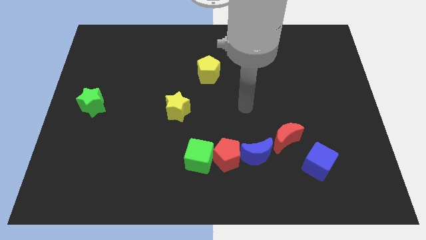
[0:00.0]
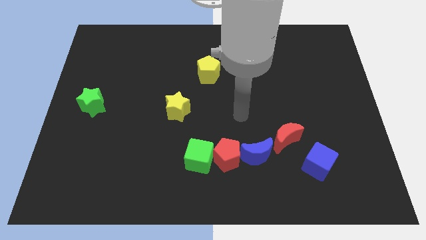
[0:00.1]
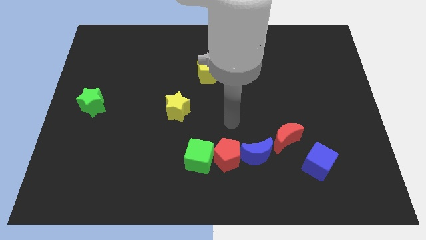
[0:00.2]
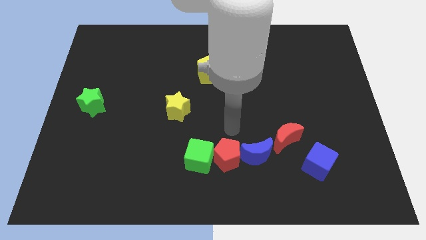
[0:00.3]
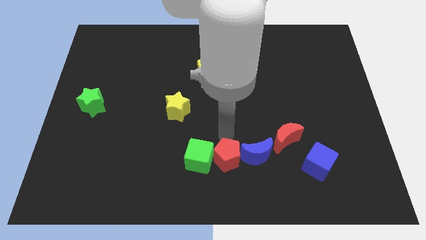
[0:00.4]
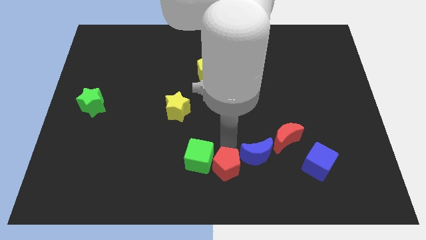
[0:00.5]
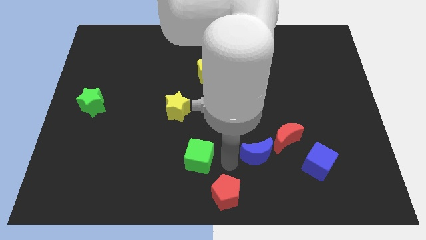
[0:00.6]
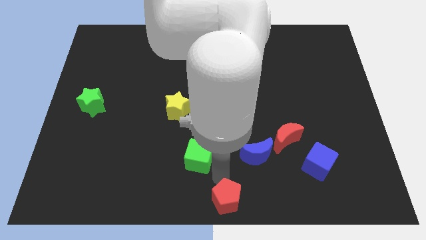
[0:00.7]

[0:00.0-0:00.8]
separate the green cube from the red pentagon

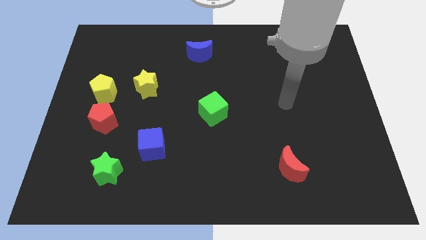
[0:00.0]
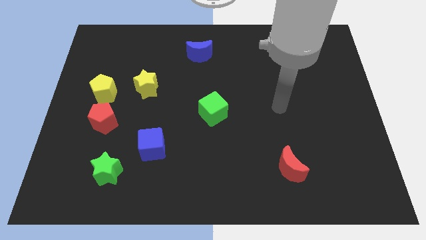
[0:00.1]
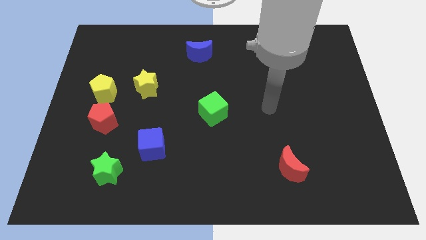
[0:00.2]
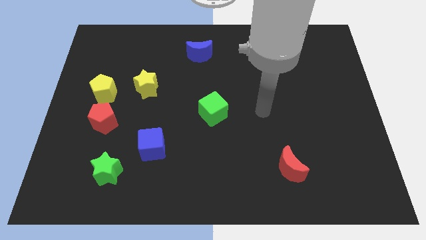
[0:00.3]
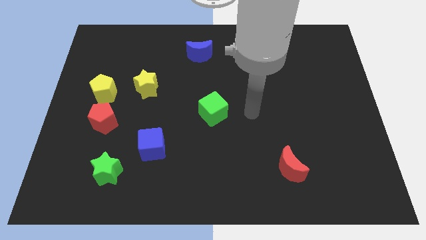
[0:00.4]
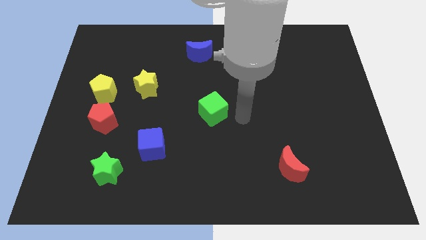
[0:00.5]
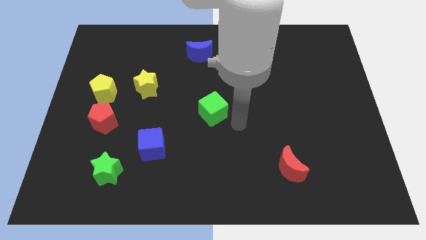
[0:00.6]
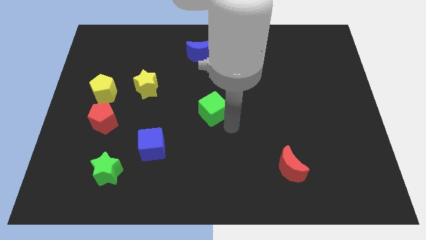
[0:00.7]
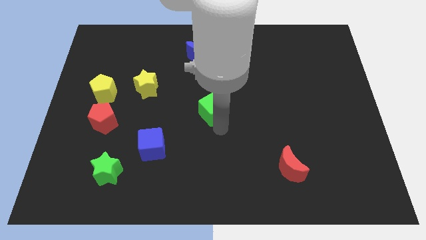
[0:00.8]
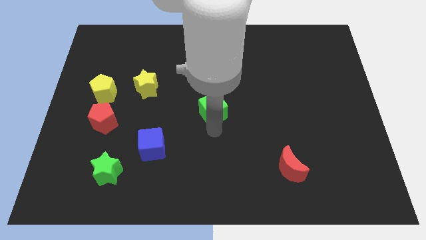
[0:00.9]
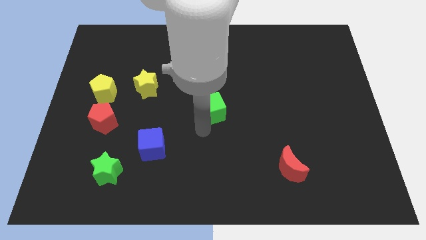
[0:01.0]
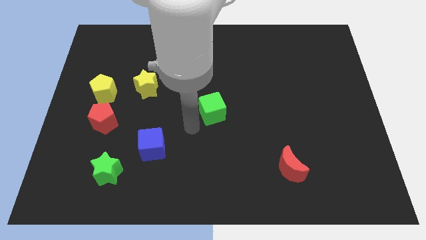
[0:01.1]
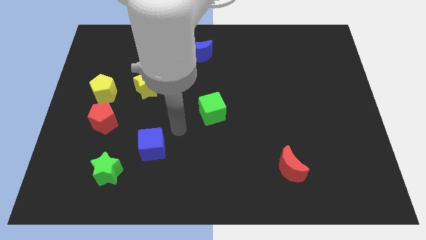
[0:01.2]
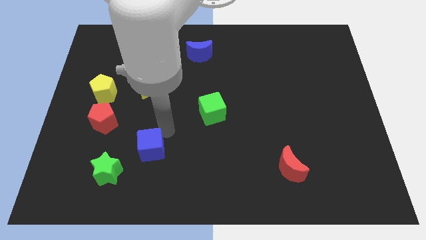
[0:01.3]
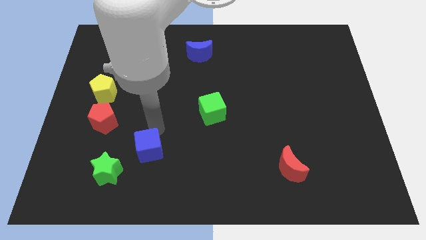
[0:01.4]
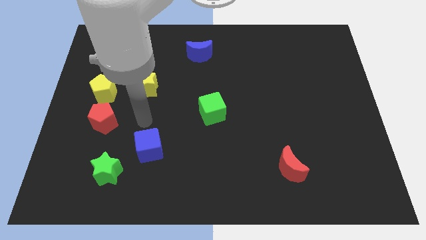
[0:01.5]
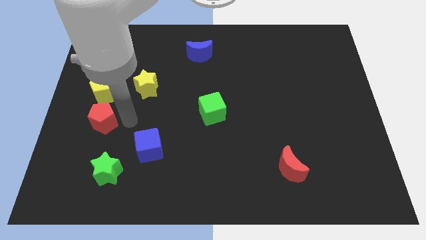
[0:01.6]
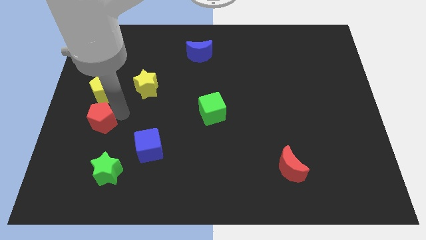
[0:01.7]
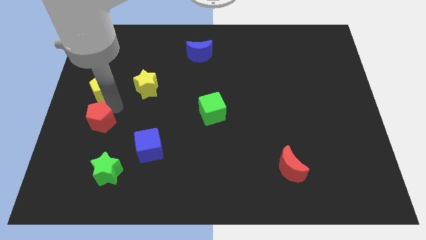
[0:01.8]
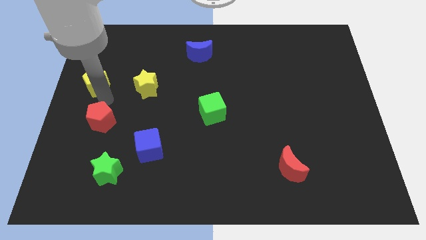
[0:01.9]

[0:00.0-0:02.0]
move the red pentagon away from the yellow pentagon

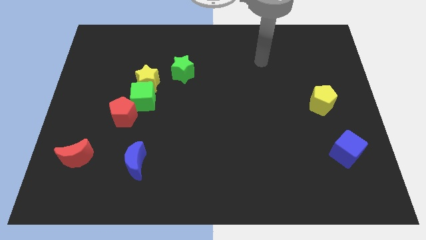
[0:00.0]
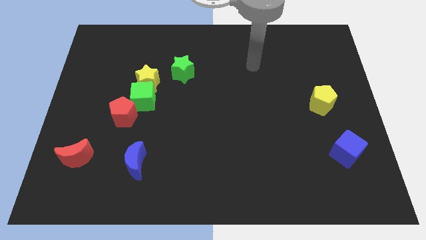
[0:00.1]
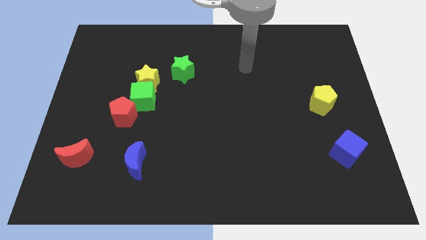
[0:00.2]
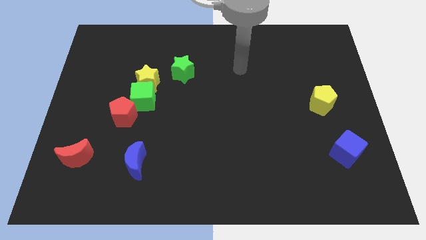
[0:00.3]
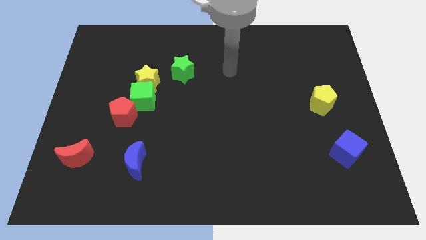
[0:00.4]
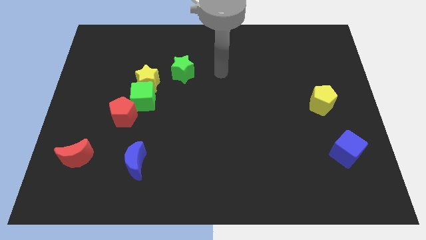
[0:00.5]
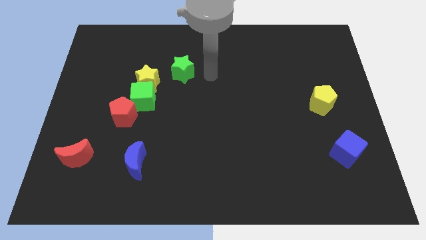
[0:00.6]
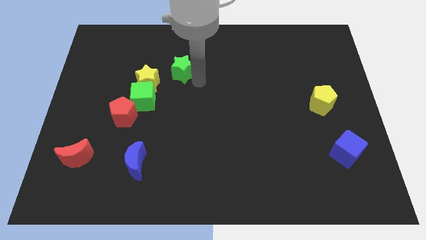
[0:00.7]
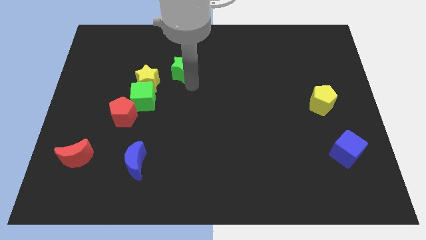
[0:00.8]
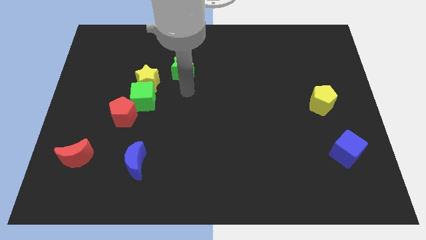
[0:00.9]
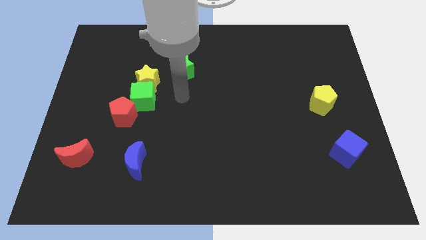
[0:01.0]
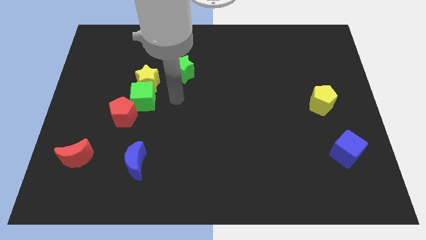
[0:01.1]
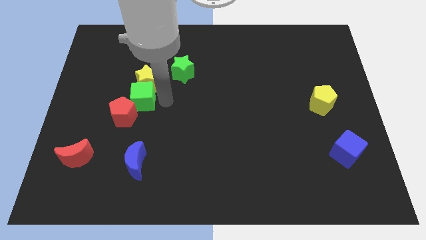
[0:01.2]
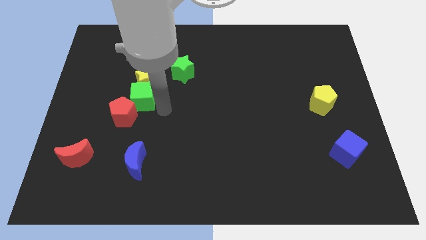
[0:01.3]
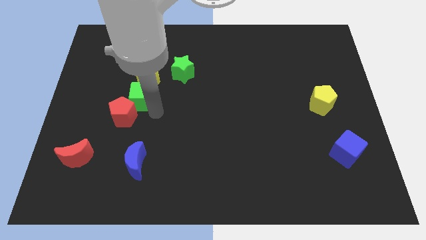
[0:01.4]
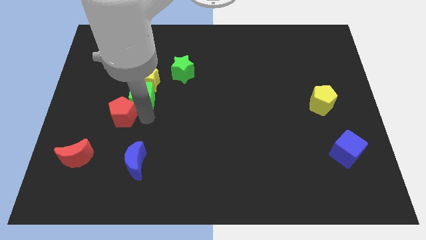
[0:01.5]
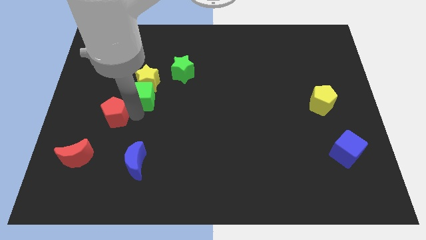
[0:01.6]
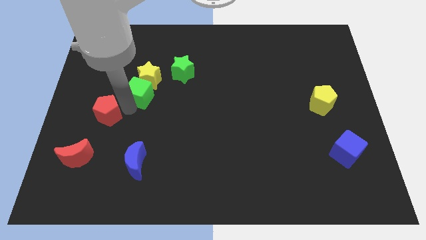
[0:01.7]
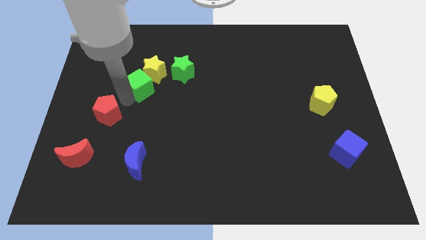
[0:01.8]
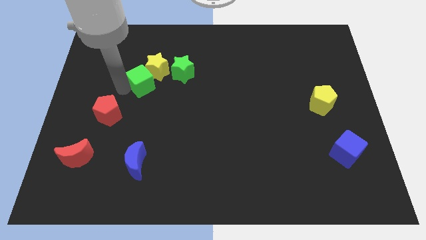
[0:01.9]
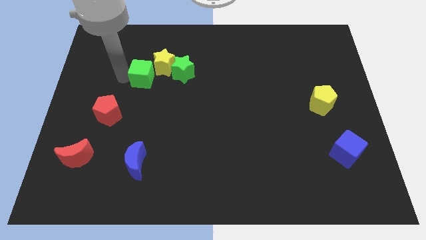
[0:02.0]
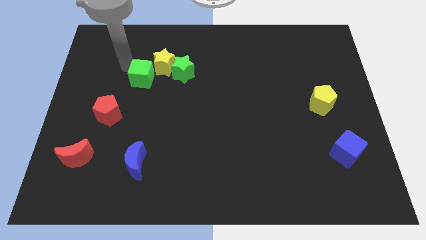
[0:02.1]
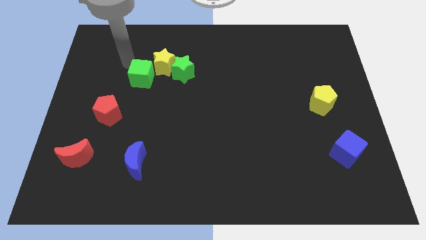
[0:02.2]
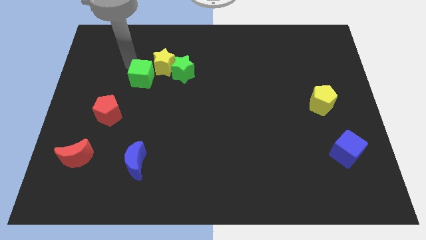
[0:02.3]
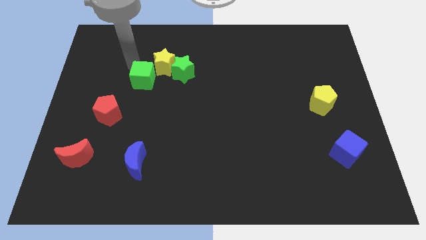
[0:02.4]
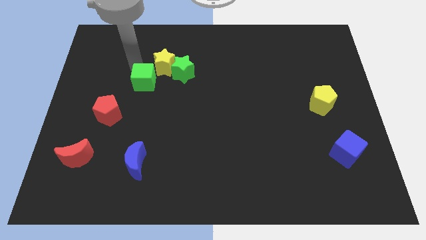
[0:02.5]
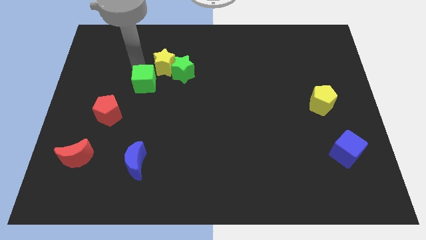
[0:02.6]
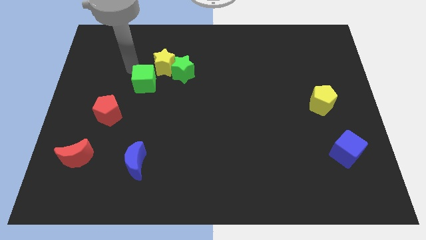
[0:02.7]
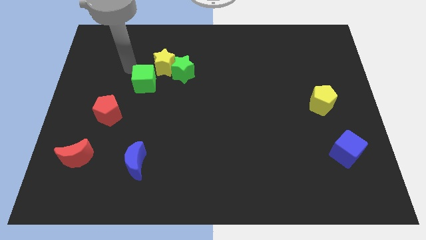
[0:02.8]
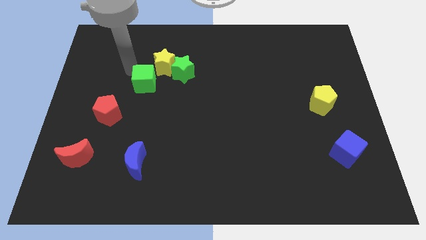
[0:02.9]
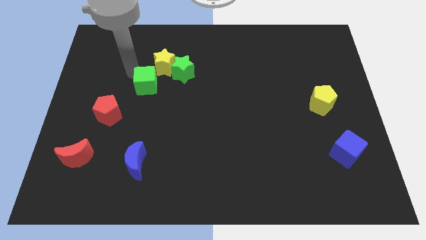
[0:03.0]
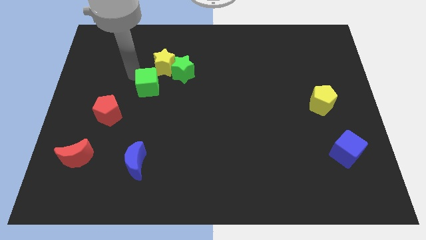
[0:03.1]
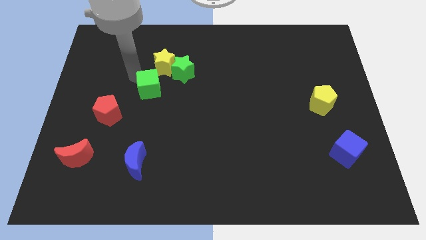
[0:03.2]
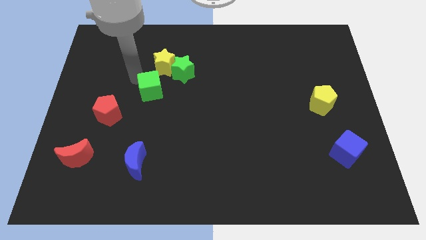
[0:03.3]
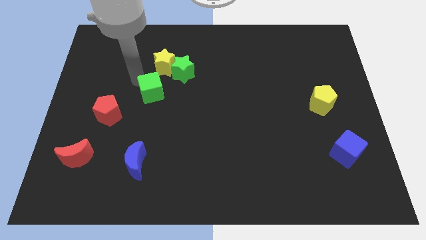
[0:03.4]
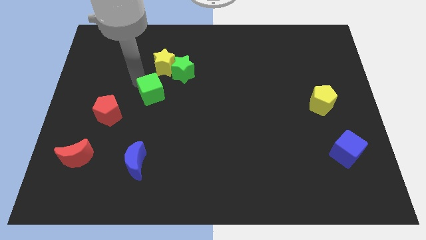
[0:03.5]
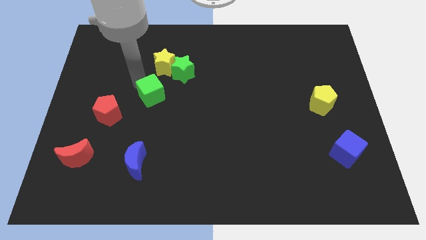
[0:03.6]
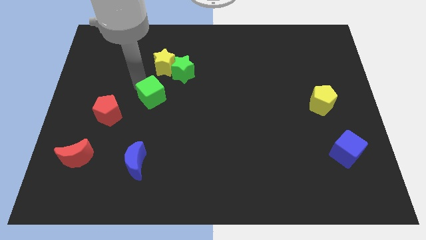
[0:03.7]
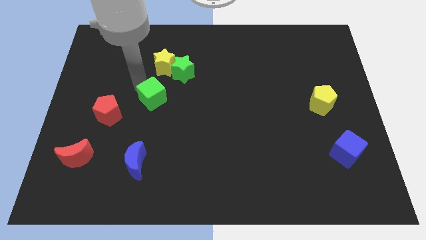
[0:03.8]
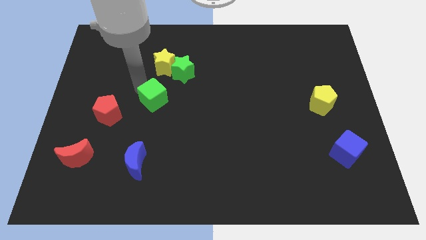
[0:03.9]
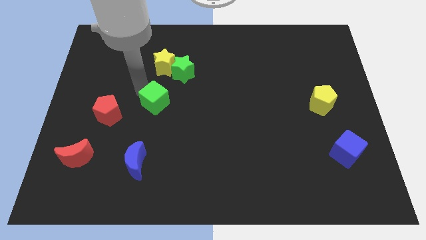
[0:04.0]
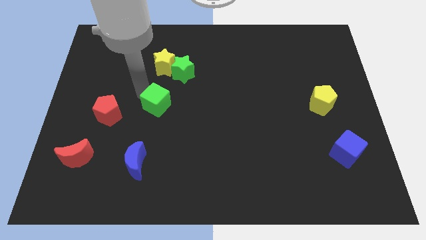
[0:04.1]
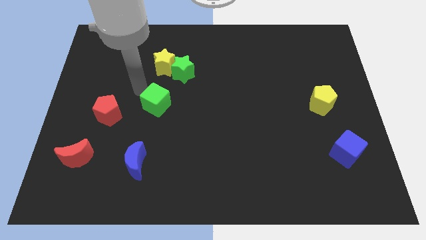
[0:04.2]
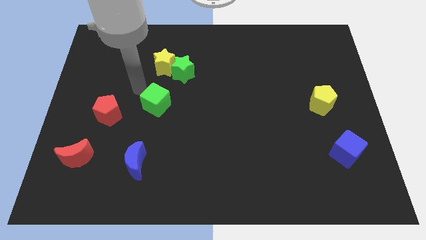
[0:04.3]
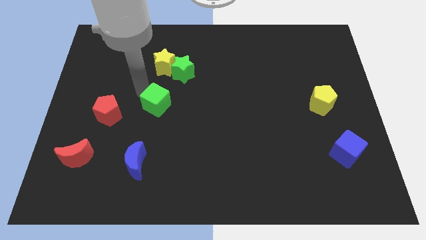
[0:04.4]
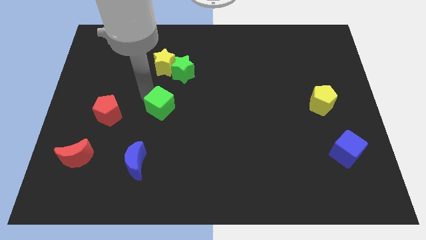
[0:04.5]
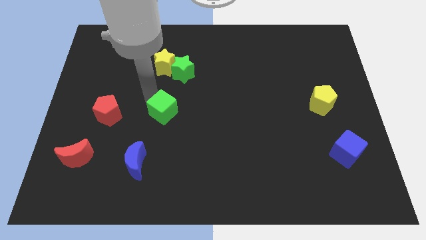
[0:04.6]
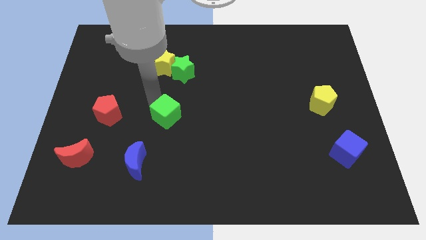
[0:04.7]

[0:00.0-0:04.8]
pull the green cube apart from the yellow star and red pentagon

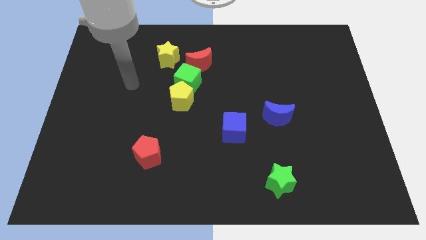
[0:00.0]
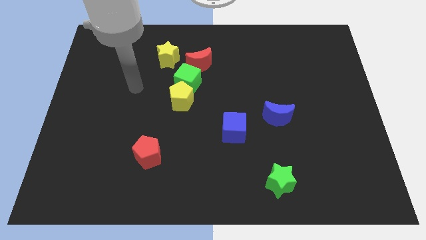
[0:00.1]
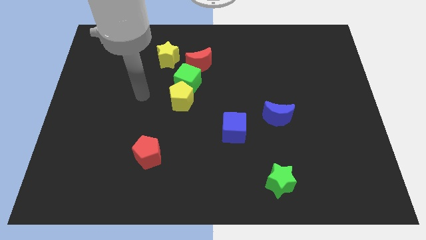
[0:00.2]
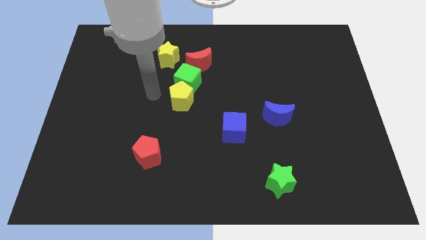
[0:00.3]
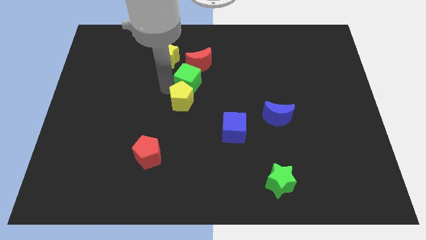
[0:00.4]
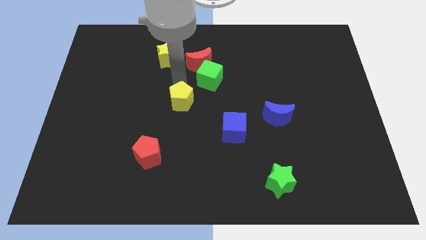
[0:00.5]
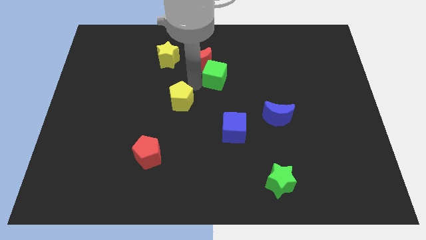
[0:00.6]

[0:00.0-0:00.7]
separate the yellow pentagon from the green cube

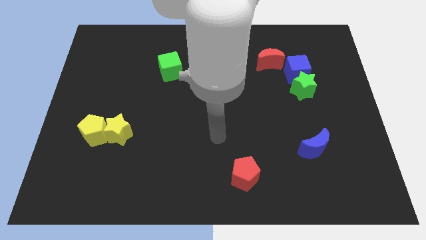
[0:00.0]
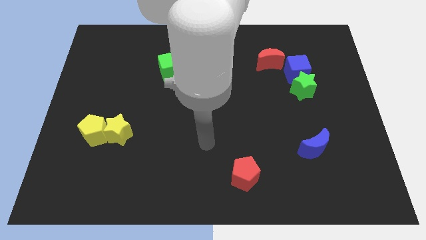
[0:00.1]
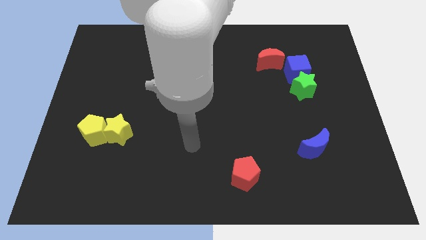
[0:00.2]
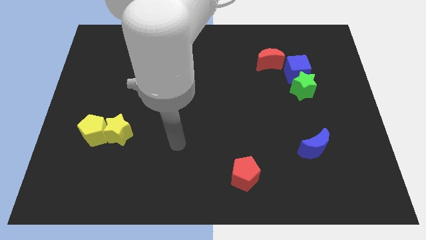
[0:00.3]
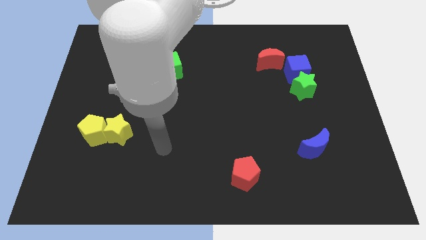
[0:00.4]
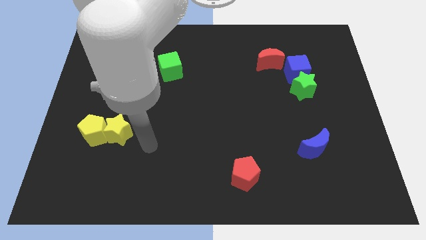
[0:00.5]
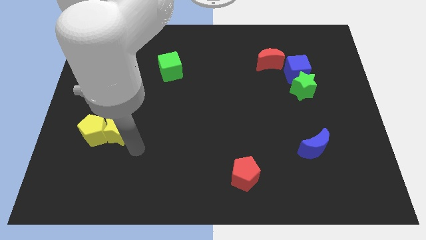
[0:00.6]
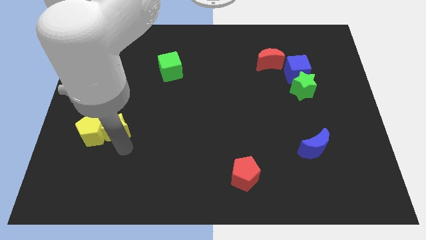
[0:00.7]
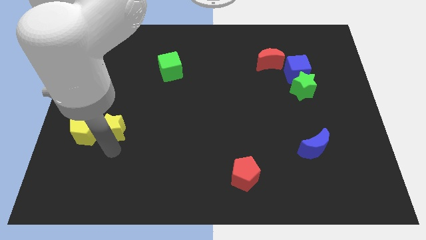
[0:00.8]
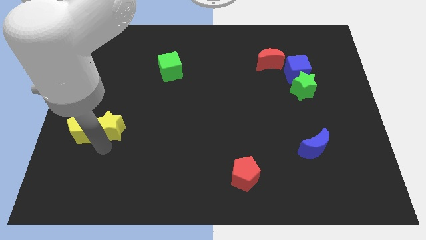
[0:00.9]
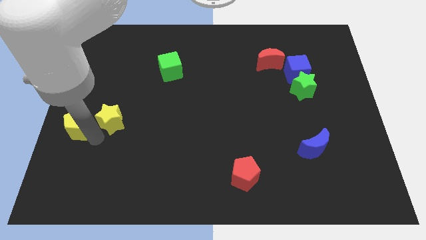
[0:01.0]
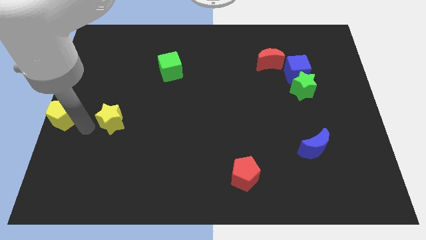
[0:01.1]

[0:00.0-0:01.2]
pull the yellow star apart from the yellow pentagon
